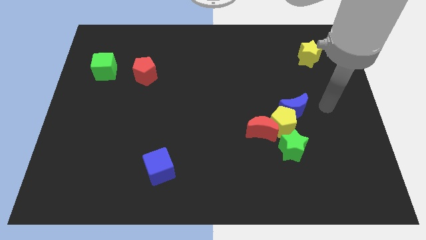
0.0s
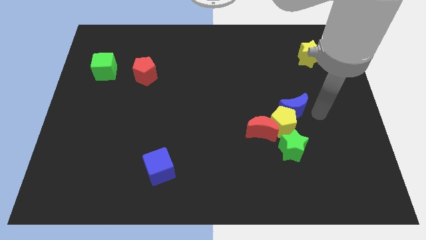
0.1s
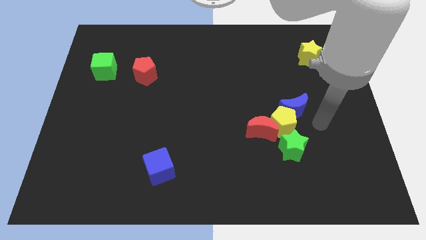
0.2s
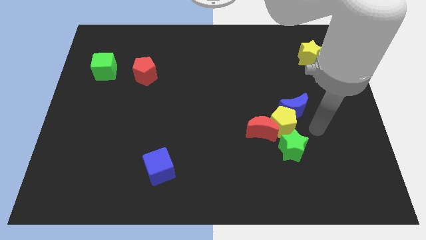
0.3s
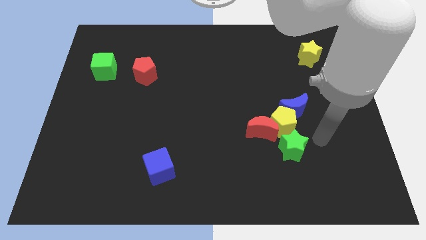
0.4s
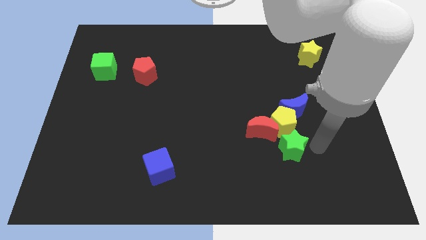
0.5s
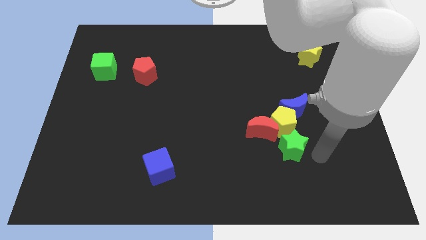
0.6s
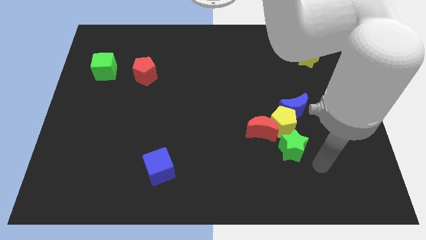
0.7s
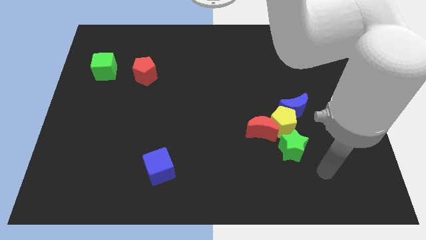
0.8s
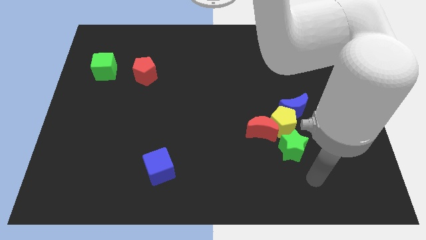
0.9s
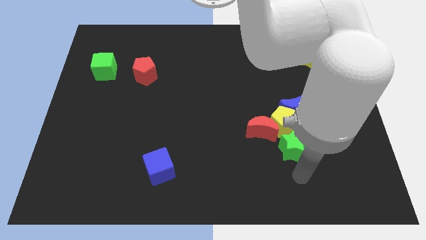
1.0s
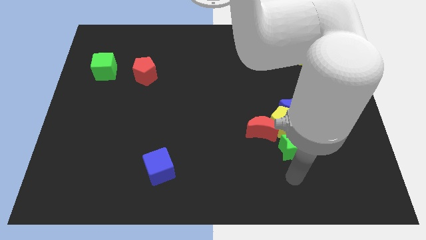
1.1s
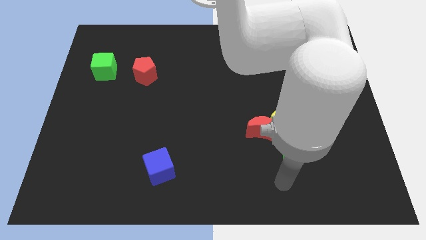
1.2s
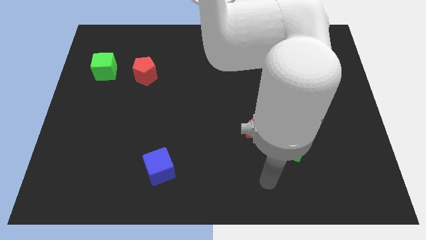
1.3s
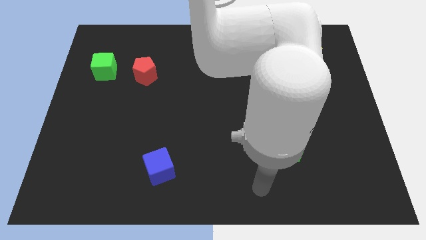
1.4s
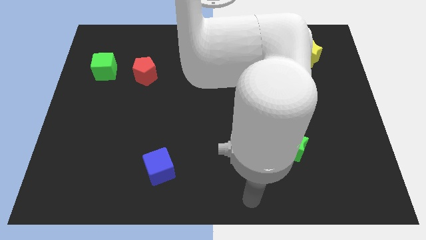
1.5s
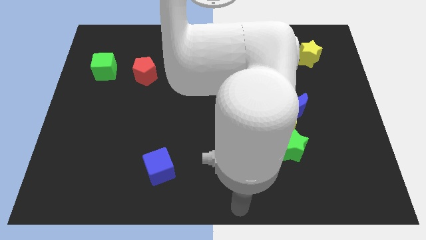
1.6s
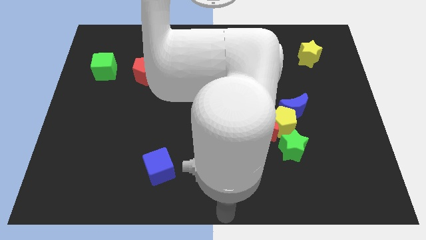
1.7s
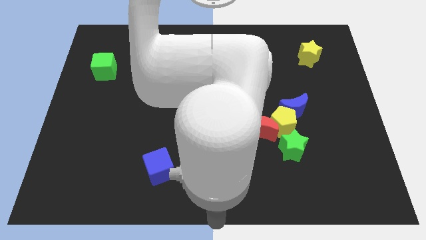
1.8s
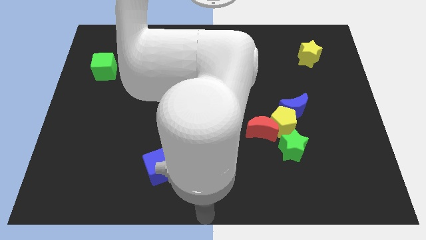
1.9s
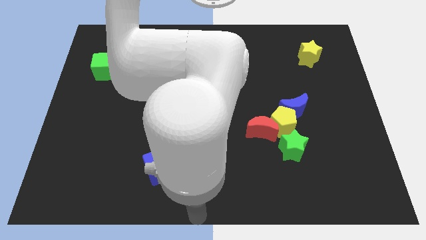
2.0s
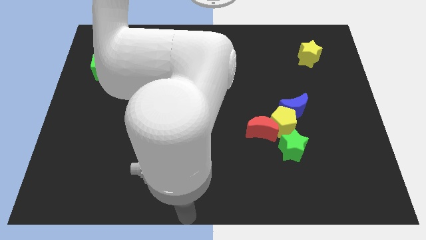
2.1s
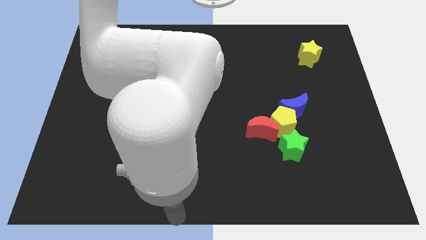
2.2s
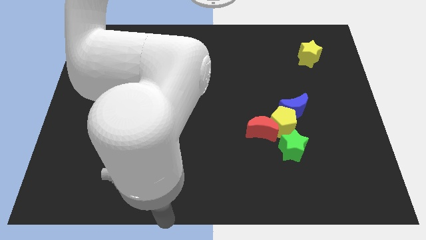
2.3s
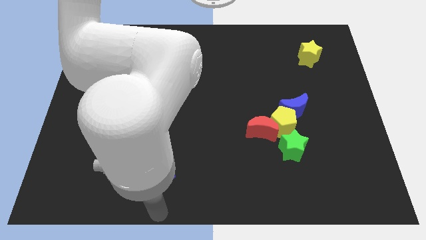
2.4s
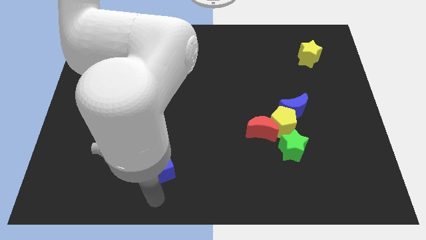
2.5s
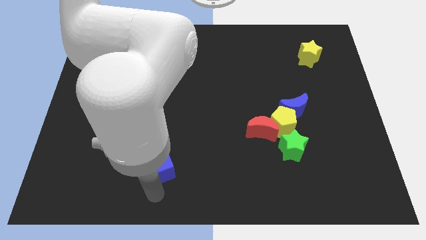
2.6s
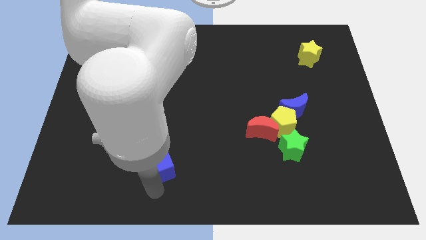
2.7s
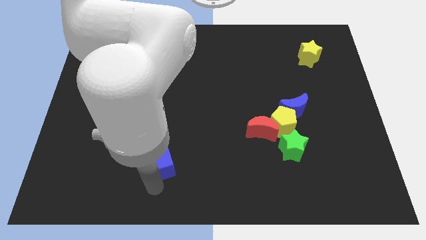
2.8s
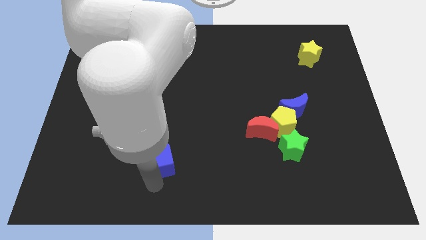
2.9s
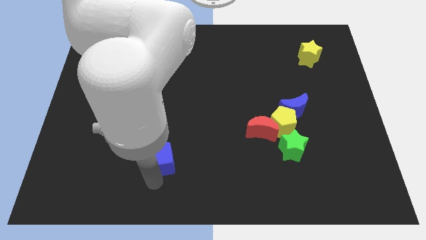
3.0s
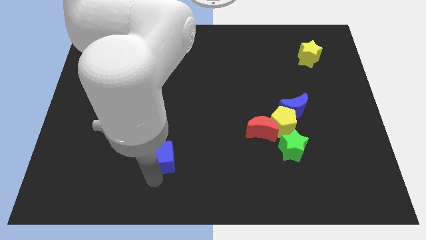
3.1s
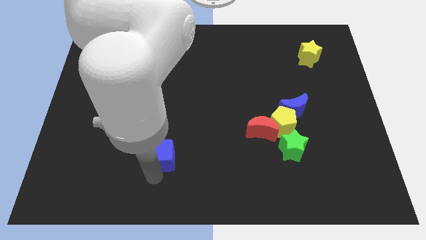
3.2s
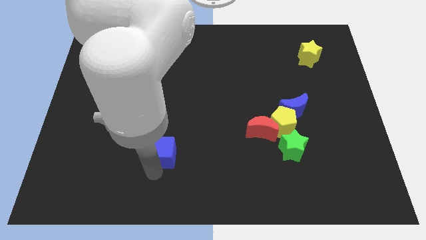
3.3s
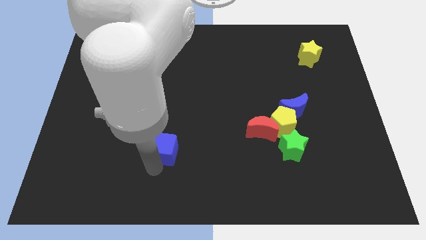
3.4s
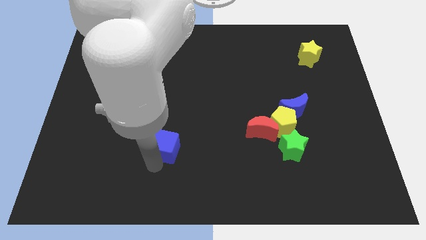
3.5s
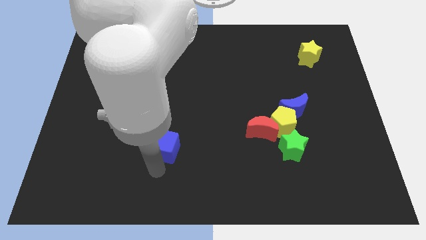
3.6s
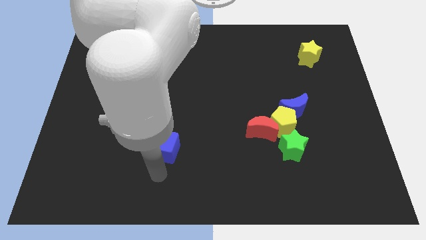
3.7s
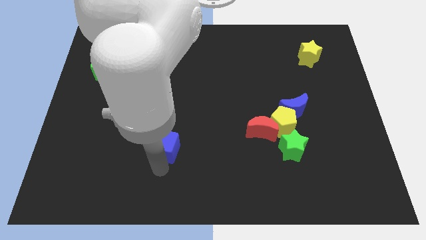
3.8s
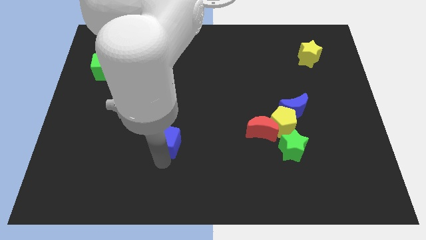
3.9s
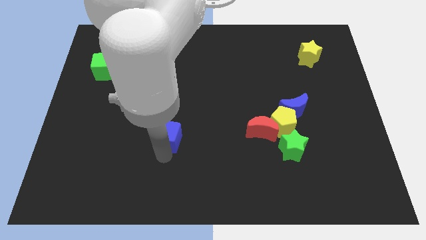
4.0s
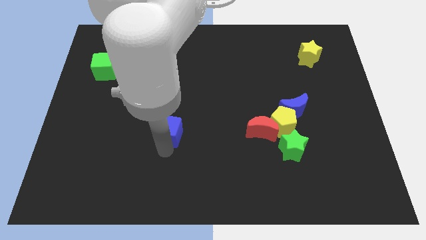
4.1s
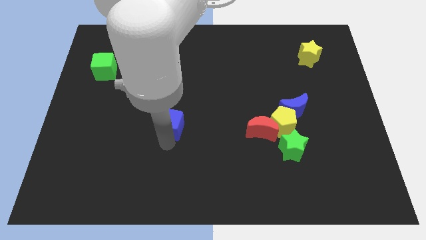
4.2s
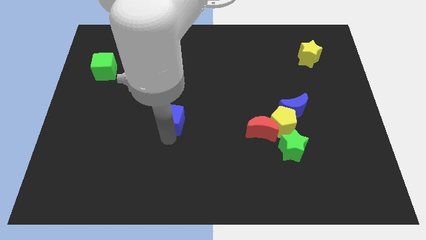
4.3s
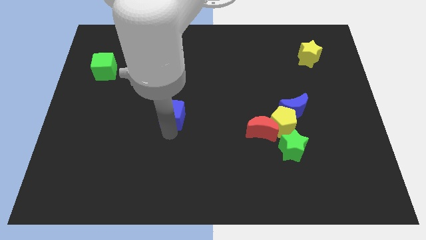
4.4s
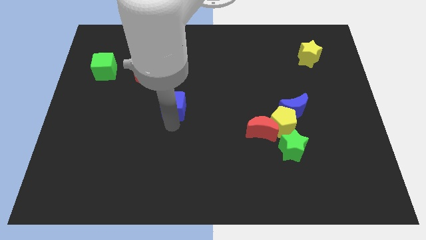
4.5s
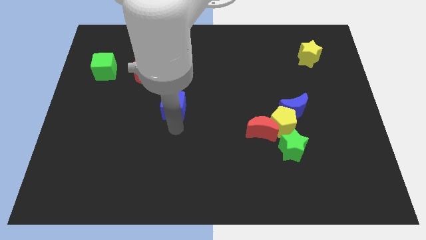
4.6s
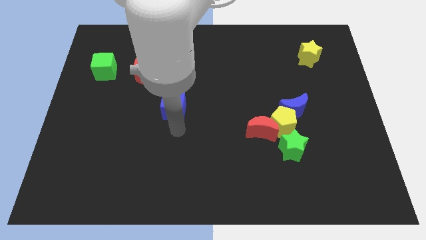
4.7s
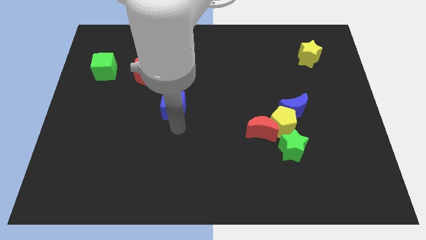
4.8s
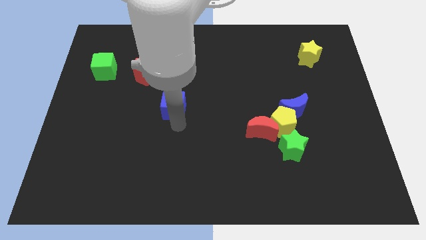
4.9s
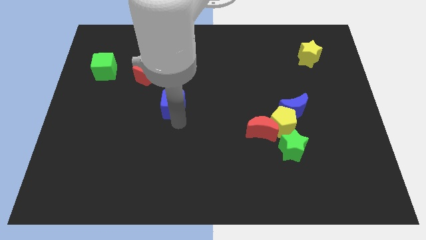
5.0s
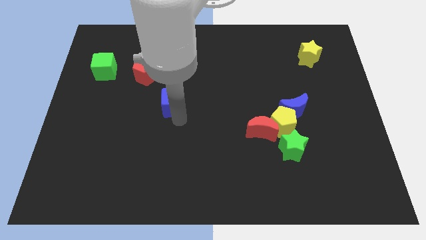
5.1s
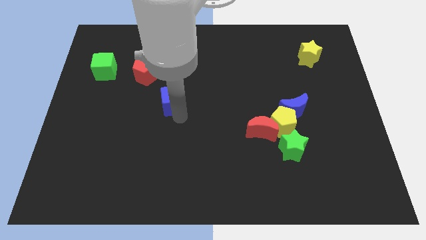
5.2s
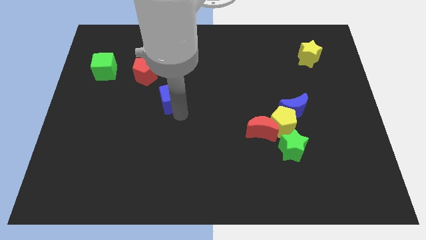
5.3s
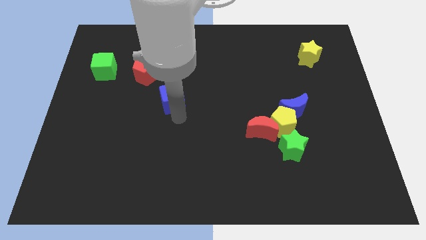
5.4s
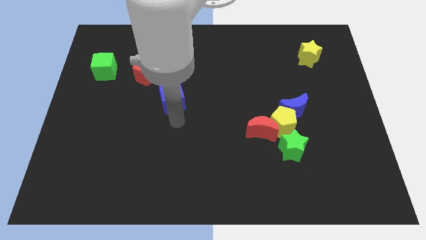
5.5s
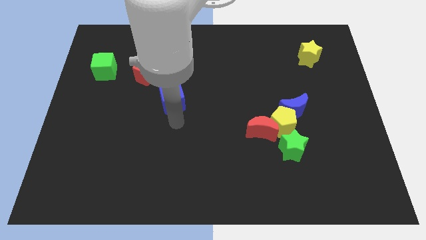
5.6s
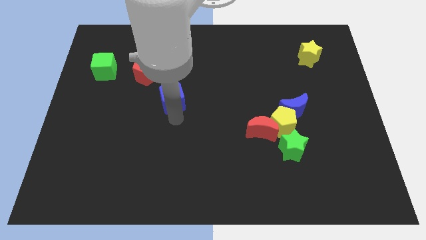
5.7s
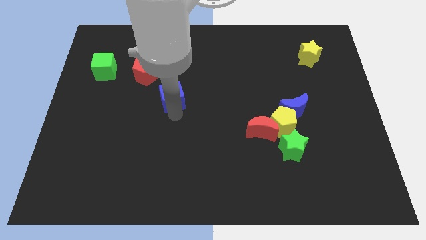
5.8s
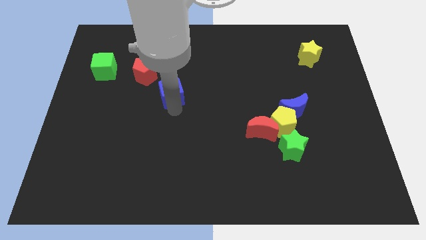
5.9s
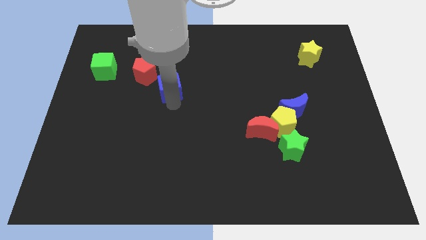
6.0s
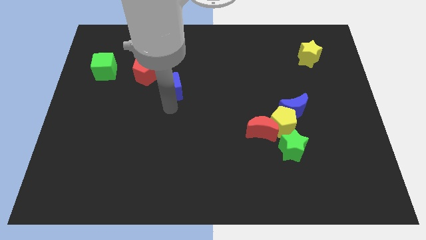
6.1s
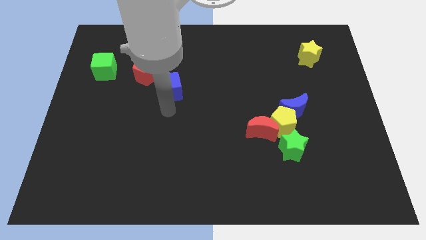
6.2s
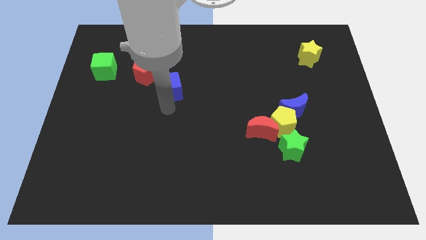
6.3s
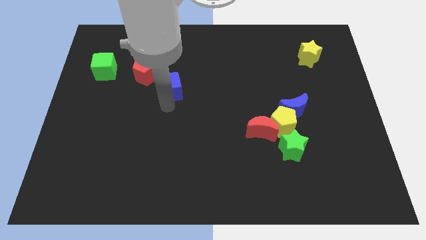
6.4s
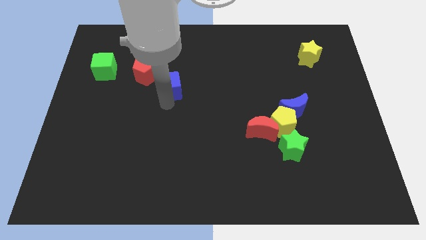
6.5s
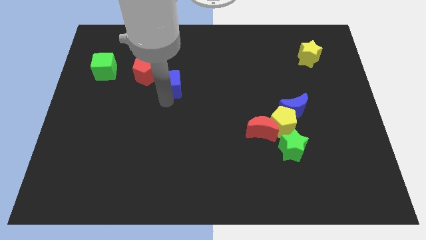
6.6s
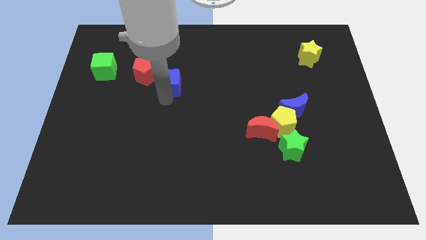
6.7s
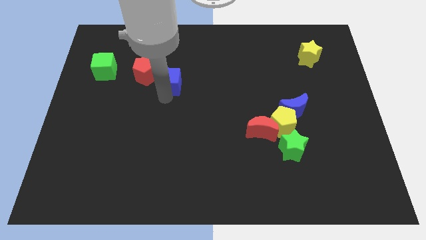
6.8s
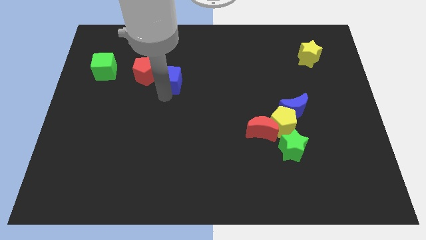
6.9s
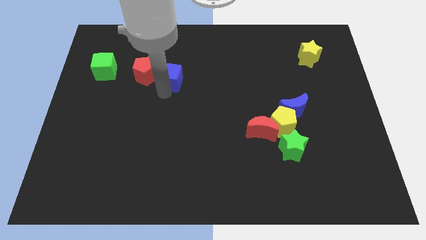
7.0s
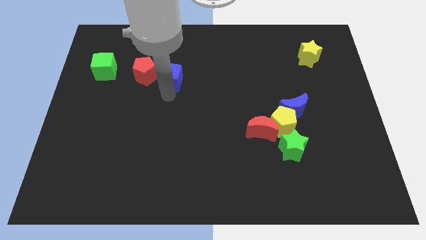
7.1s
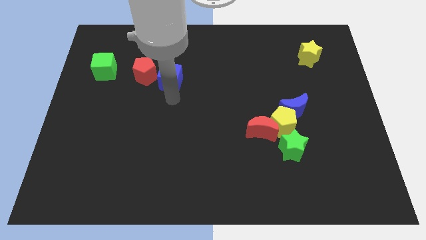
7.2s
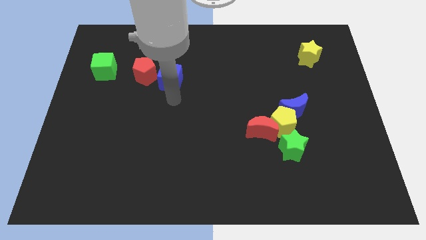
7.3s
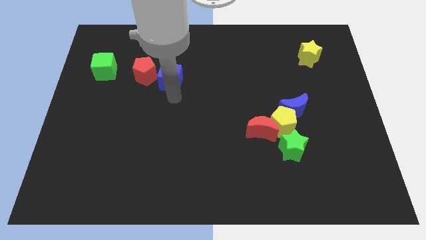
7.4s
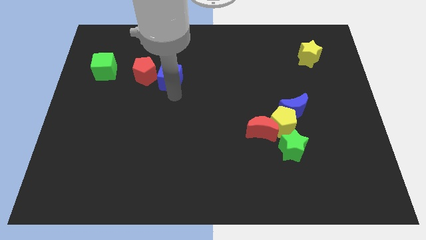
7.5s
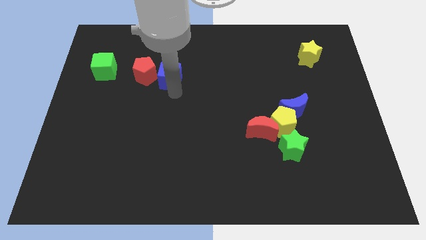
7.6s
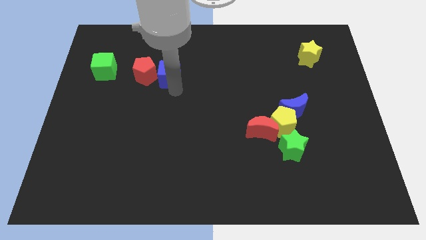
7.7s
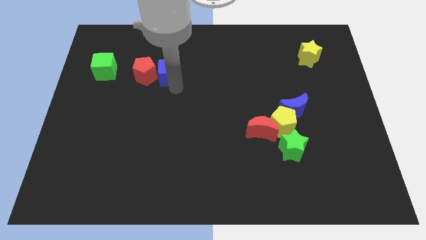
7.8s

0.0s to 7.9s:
slide the blue cube diagonally up and to the right of the red pentagon
